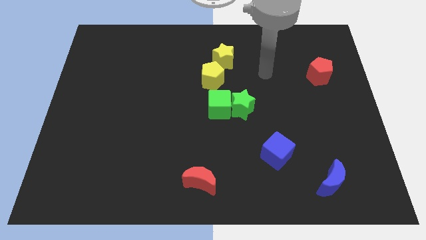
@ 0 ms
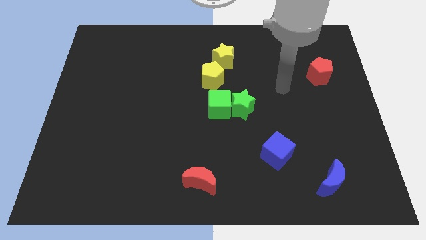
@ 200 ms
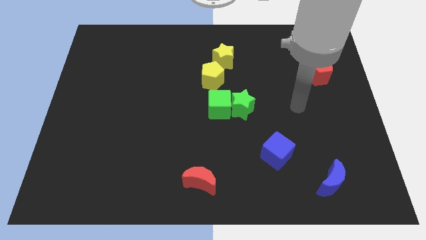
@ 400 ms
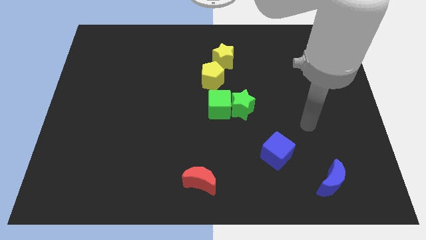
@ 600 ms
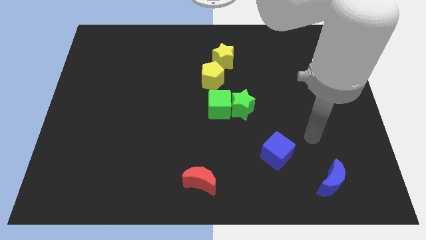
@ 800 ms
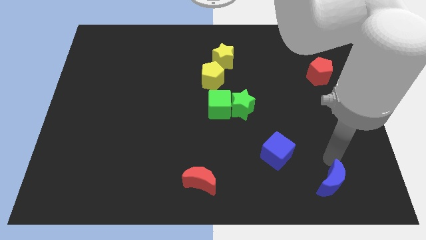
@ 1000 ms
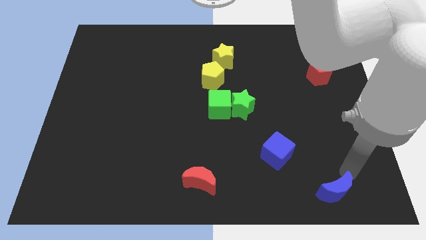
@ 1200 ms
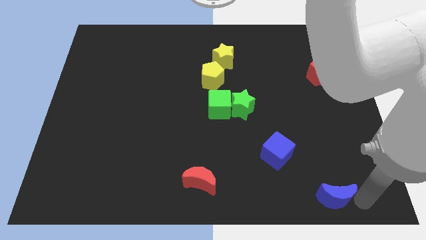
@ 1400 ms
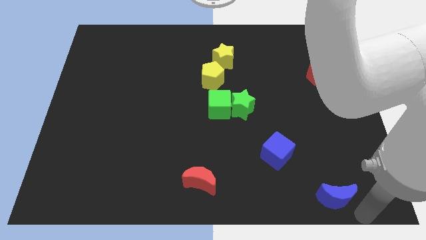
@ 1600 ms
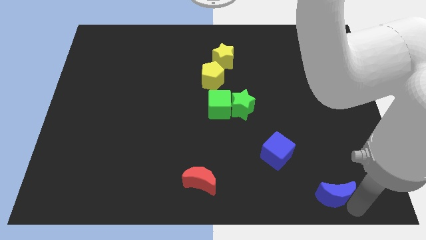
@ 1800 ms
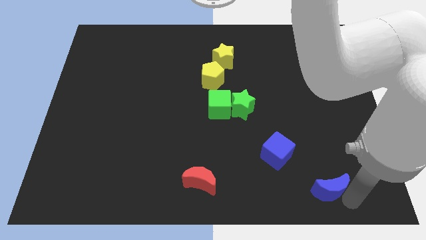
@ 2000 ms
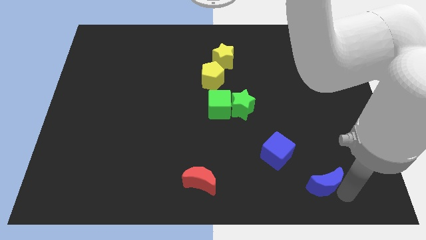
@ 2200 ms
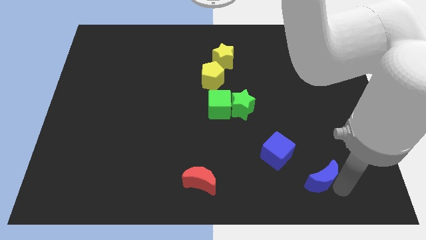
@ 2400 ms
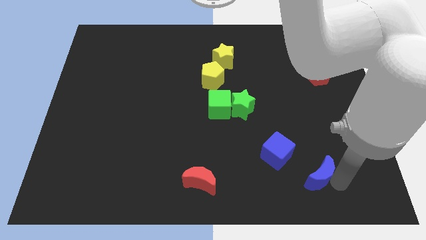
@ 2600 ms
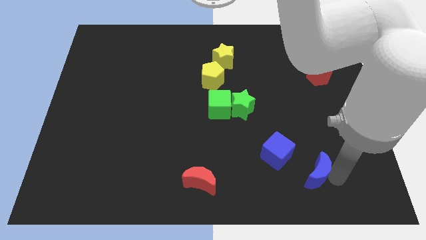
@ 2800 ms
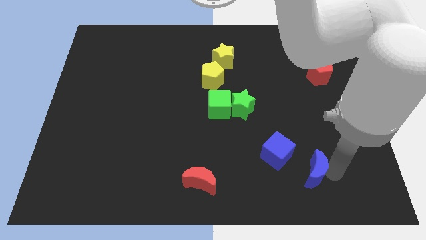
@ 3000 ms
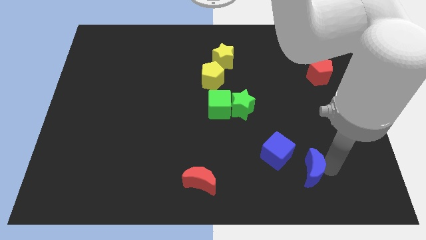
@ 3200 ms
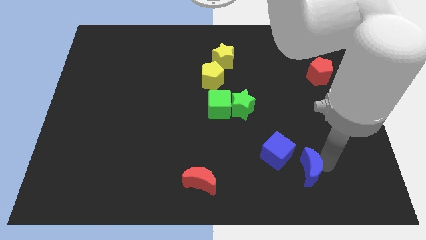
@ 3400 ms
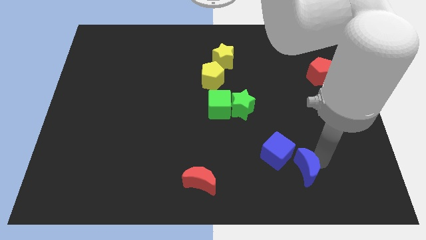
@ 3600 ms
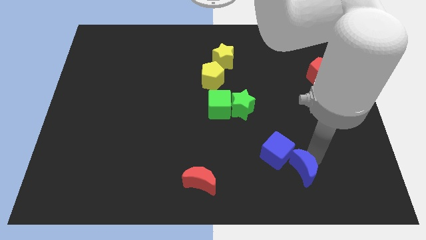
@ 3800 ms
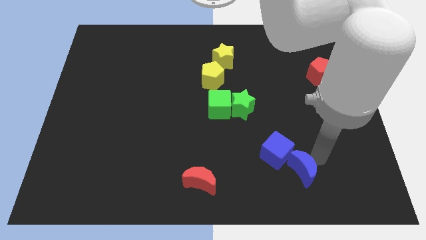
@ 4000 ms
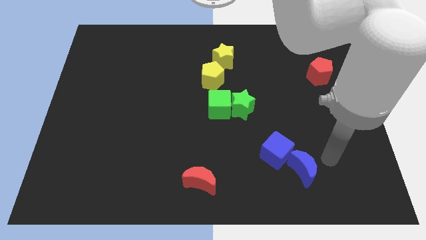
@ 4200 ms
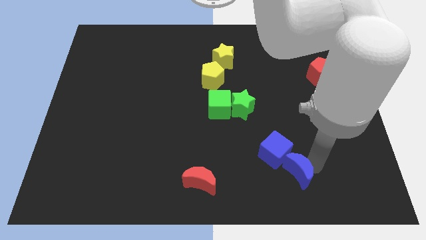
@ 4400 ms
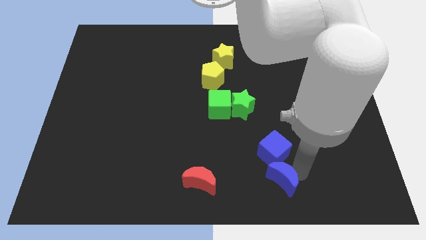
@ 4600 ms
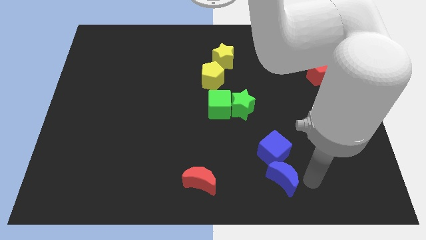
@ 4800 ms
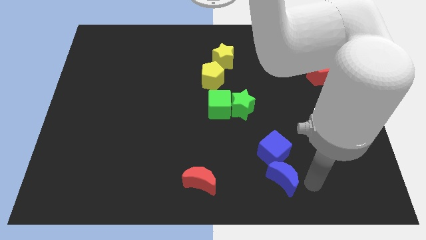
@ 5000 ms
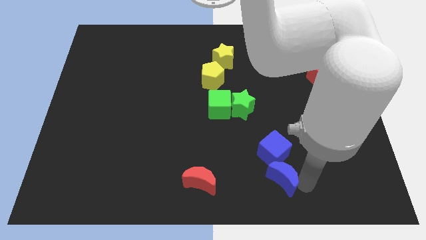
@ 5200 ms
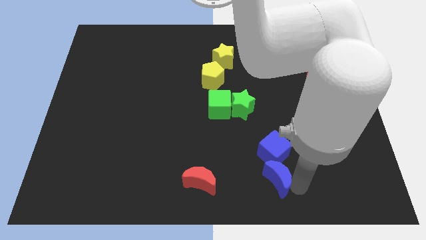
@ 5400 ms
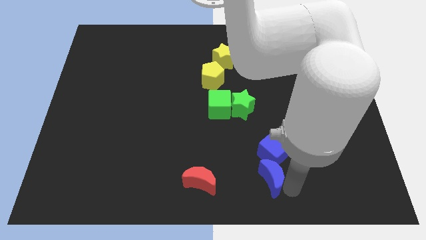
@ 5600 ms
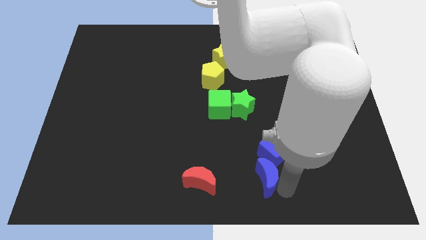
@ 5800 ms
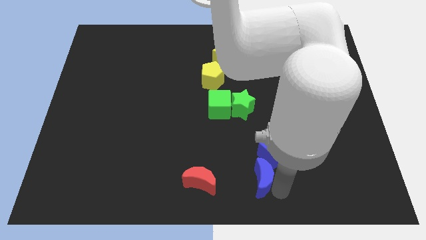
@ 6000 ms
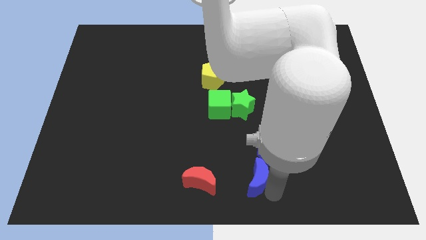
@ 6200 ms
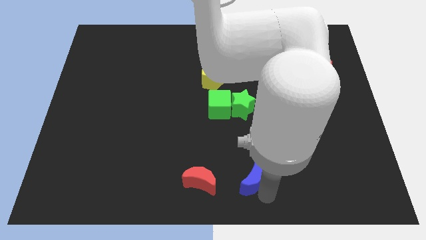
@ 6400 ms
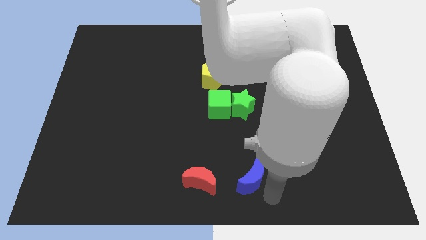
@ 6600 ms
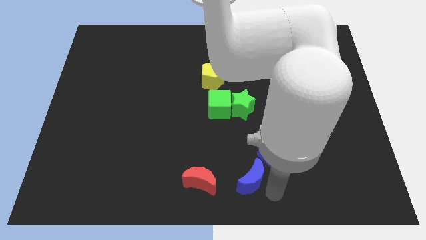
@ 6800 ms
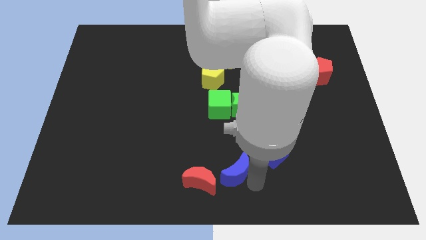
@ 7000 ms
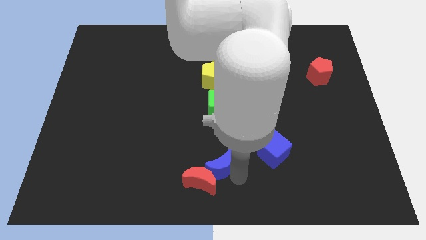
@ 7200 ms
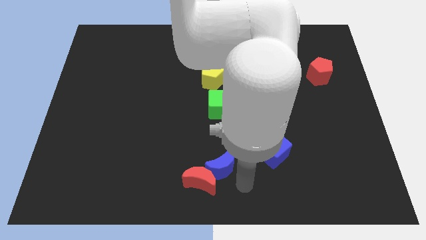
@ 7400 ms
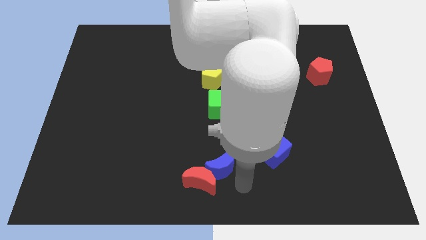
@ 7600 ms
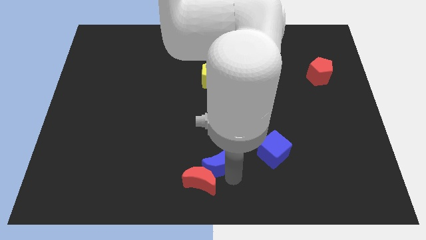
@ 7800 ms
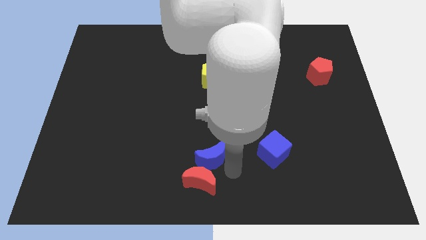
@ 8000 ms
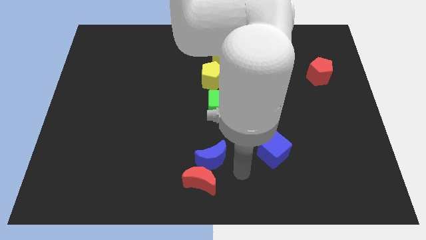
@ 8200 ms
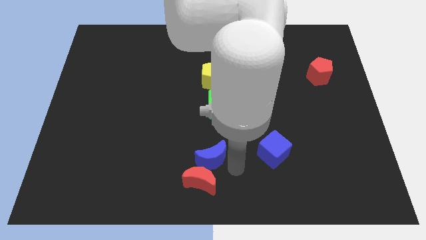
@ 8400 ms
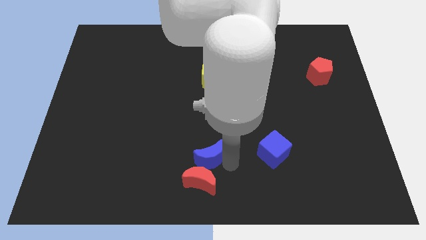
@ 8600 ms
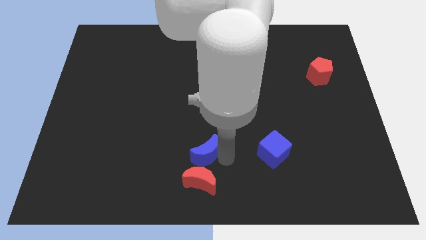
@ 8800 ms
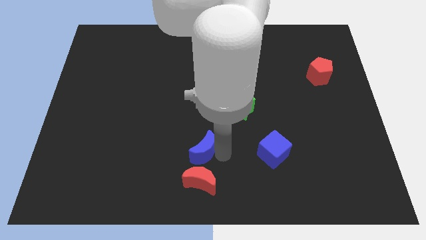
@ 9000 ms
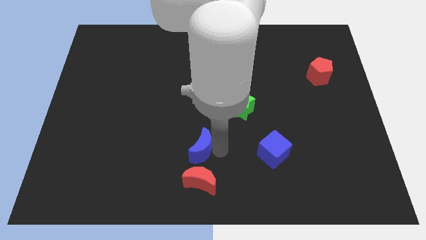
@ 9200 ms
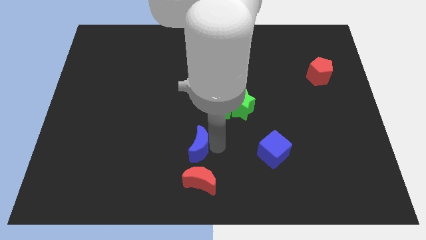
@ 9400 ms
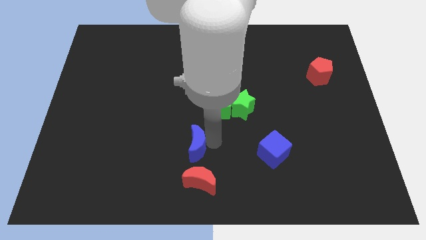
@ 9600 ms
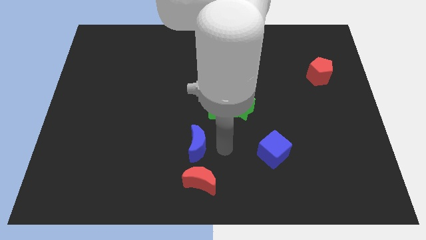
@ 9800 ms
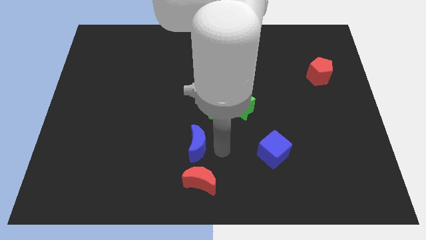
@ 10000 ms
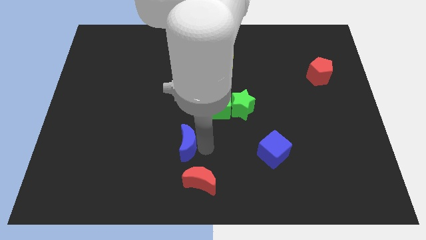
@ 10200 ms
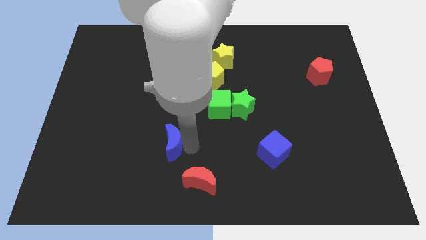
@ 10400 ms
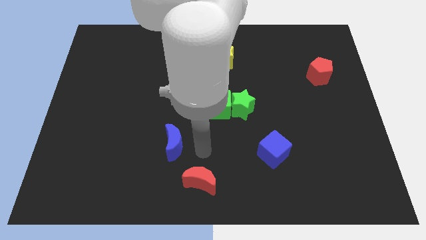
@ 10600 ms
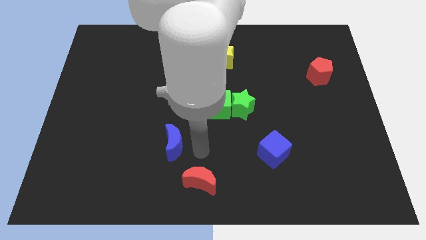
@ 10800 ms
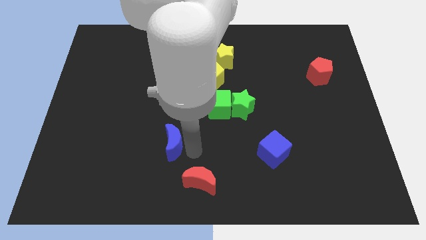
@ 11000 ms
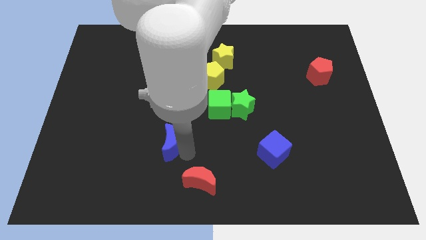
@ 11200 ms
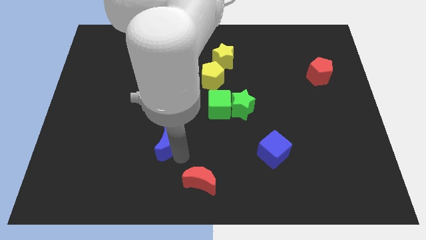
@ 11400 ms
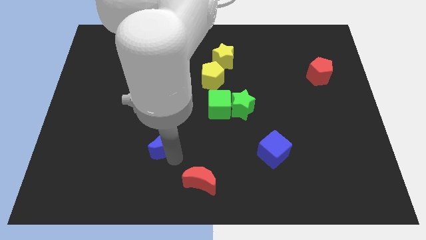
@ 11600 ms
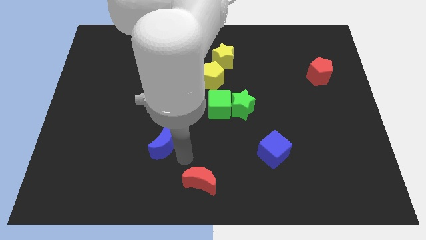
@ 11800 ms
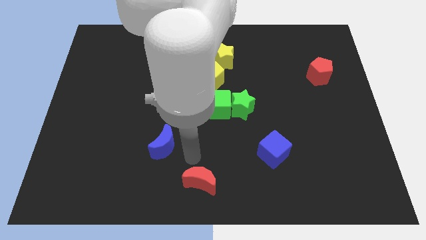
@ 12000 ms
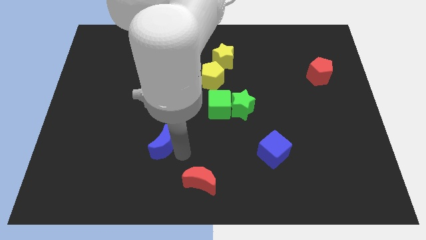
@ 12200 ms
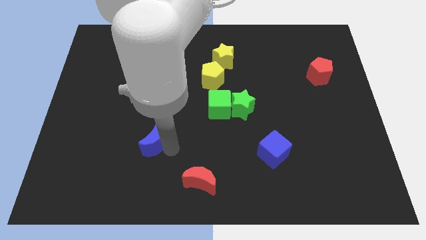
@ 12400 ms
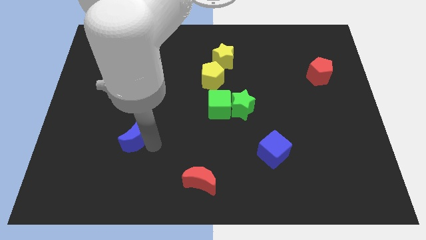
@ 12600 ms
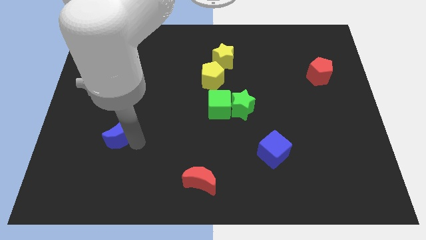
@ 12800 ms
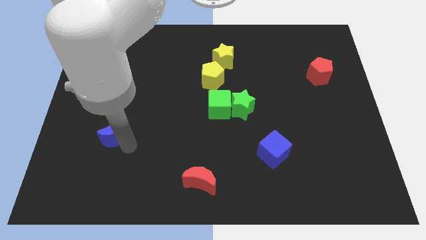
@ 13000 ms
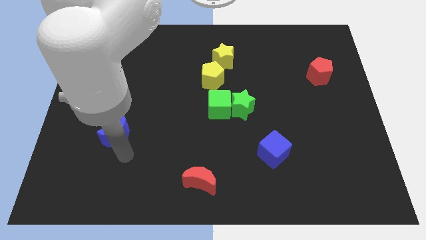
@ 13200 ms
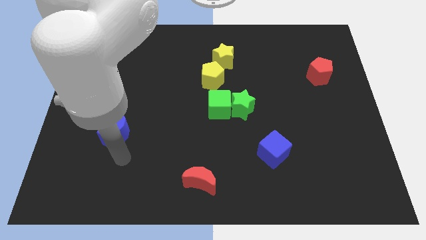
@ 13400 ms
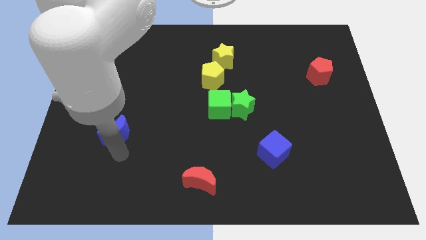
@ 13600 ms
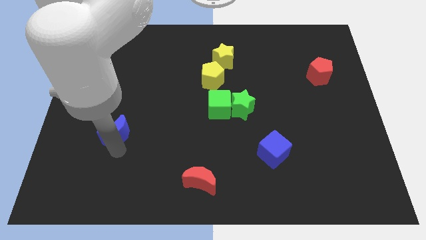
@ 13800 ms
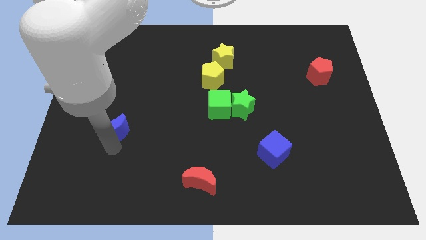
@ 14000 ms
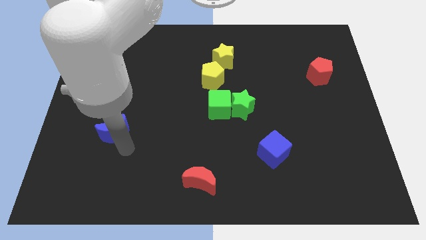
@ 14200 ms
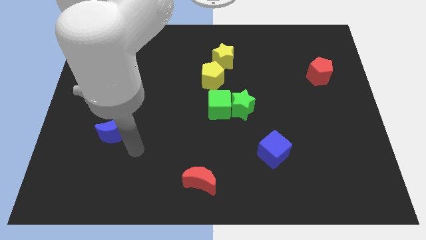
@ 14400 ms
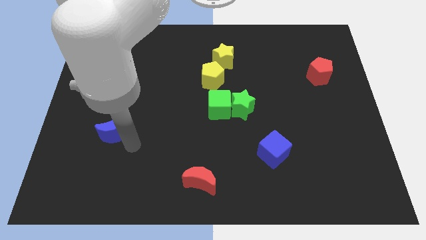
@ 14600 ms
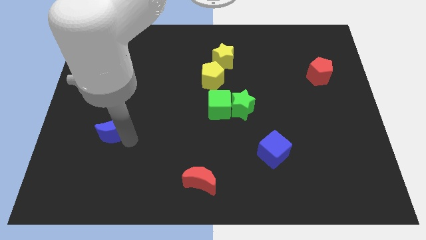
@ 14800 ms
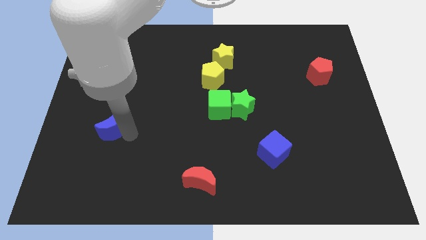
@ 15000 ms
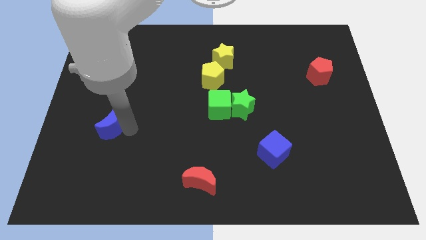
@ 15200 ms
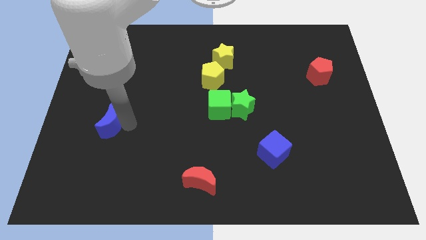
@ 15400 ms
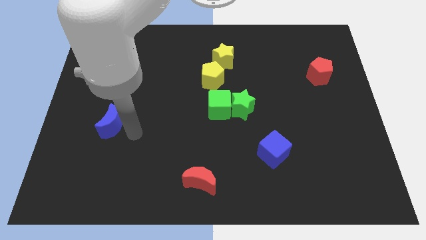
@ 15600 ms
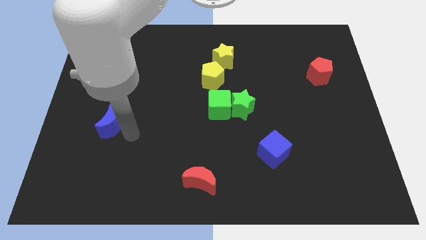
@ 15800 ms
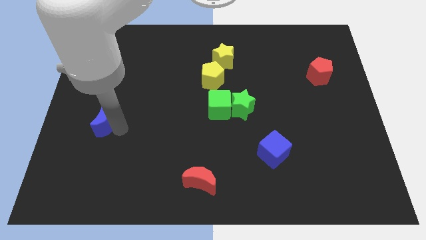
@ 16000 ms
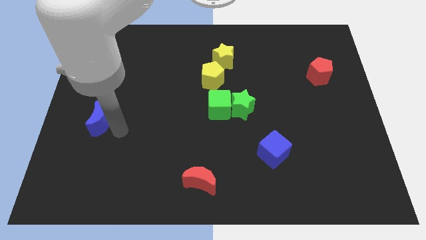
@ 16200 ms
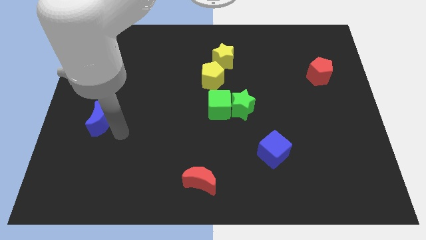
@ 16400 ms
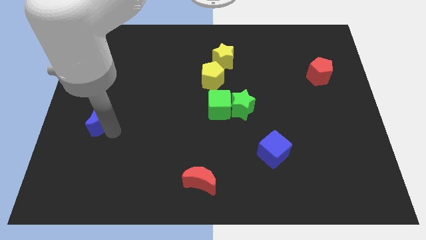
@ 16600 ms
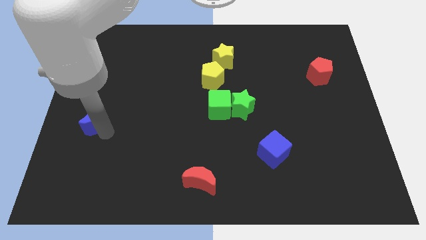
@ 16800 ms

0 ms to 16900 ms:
push the blue moon to the left side of the board
